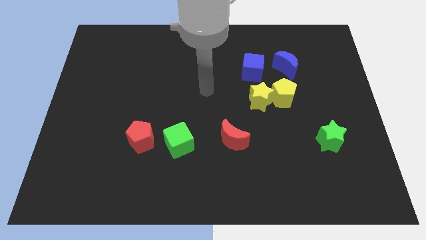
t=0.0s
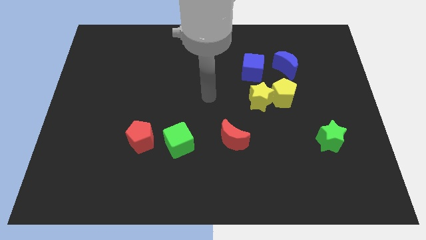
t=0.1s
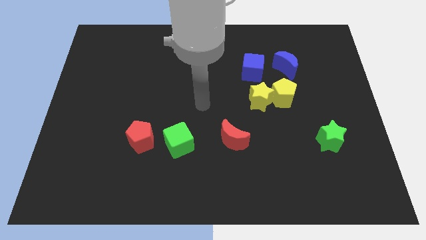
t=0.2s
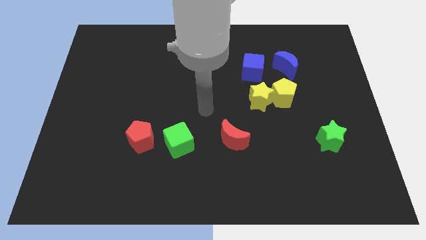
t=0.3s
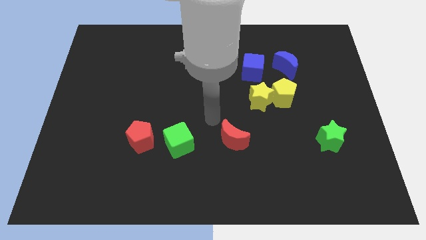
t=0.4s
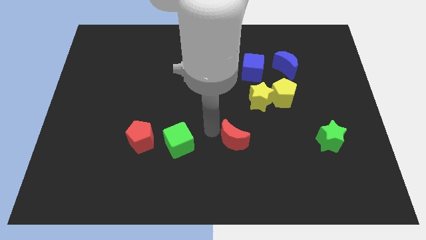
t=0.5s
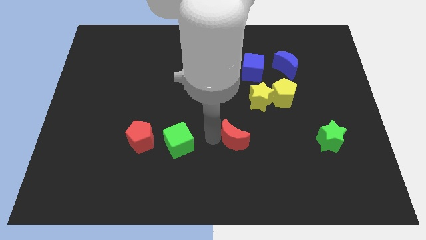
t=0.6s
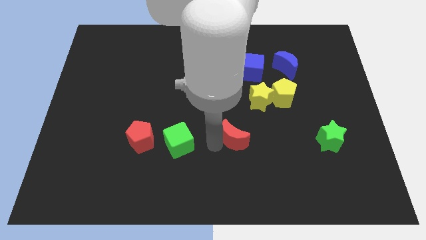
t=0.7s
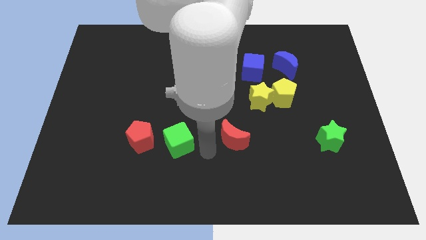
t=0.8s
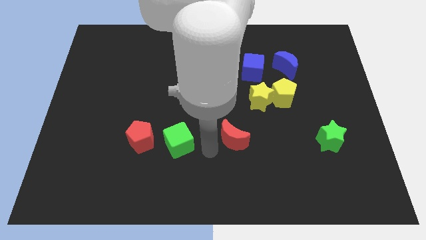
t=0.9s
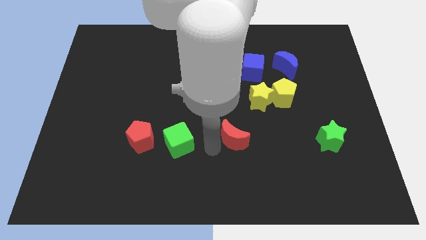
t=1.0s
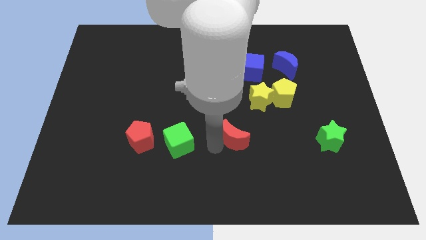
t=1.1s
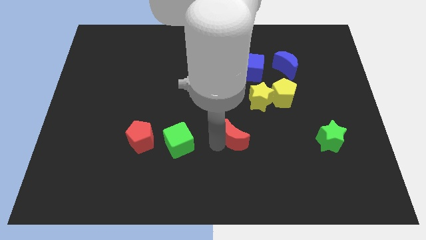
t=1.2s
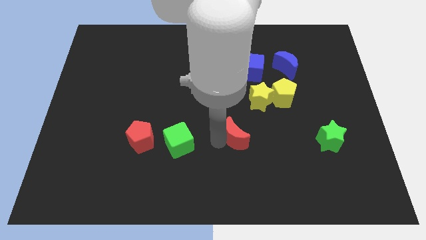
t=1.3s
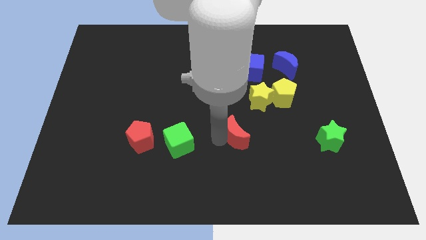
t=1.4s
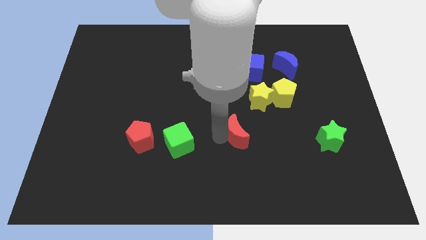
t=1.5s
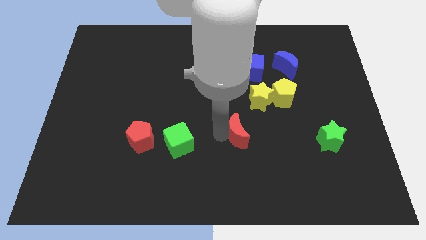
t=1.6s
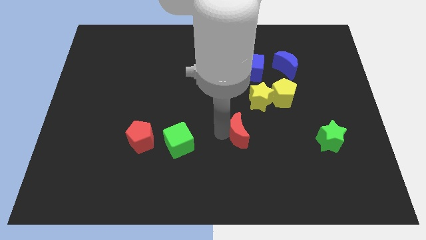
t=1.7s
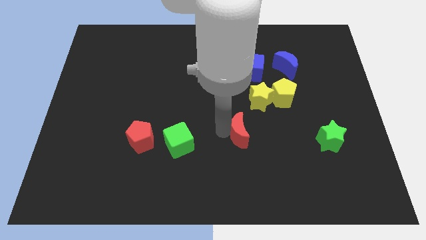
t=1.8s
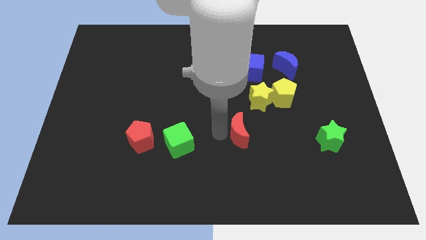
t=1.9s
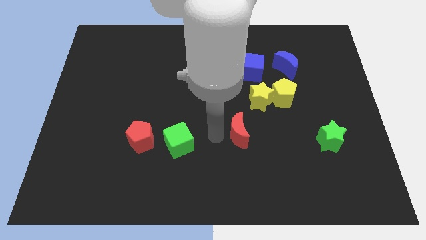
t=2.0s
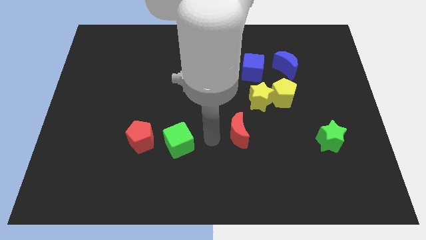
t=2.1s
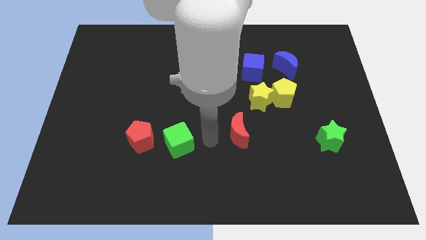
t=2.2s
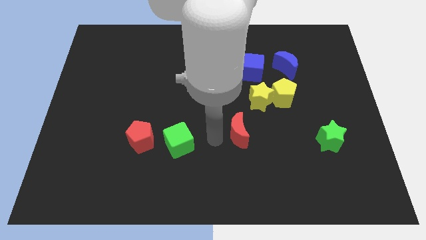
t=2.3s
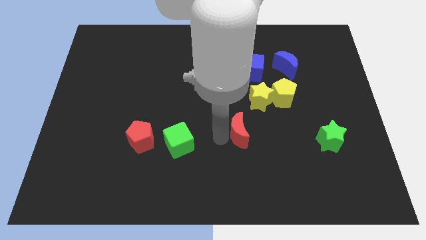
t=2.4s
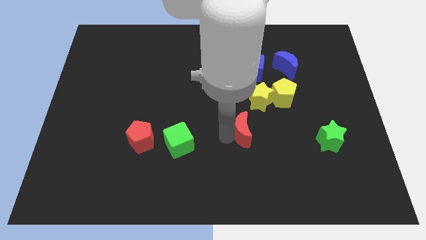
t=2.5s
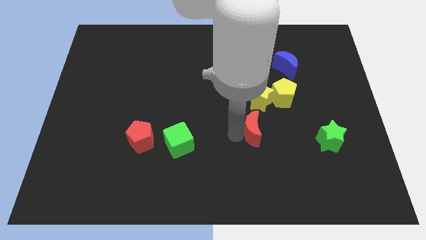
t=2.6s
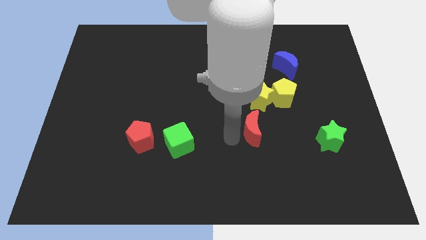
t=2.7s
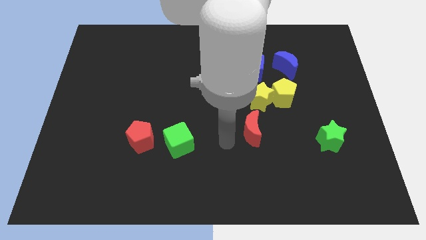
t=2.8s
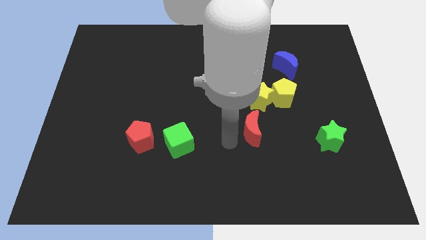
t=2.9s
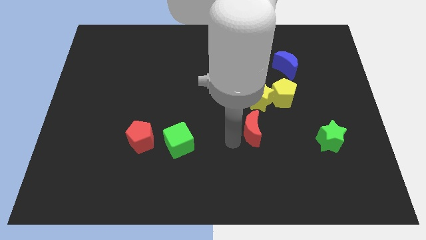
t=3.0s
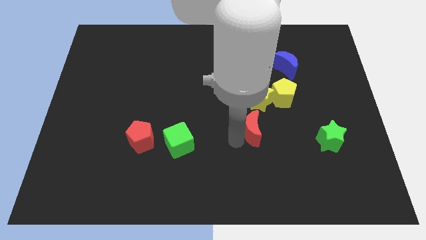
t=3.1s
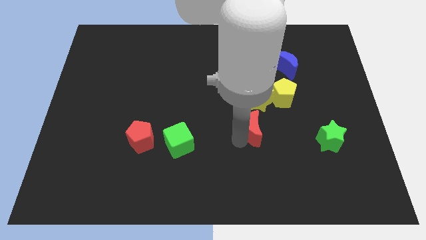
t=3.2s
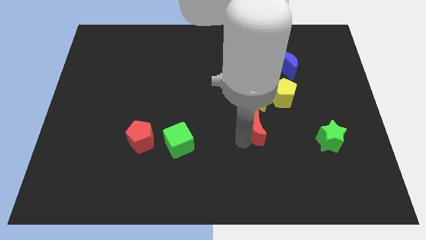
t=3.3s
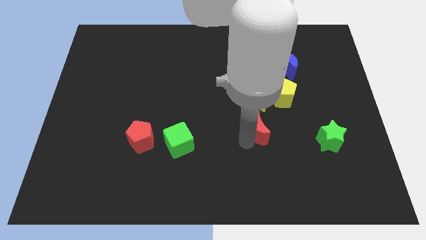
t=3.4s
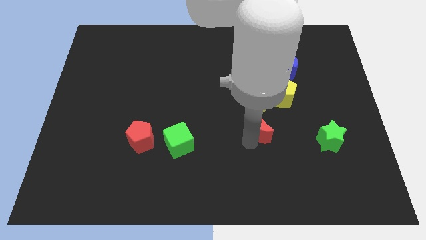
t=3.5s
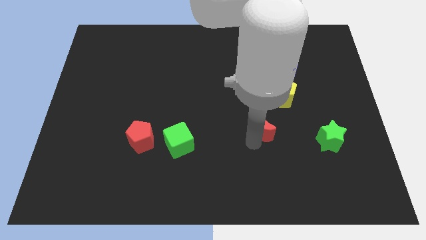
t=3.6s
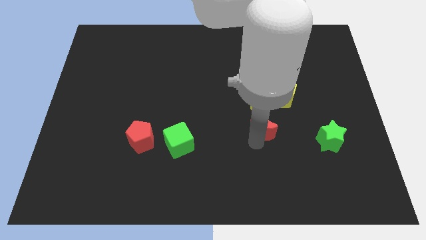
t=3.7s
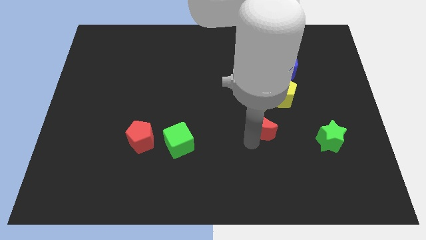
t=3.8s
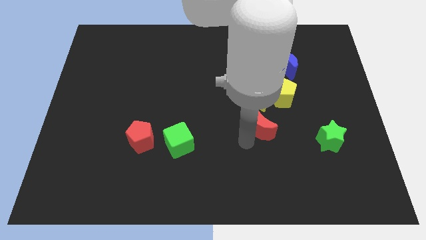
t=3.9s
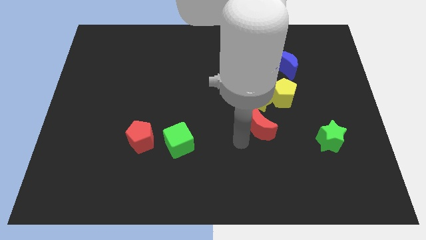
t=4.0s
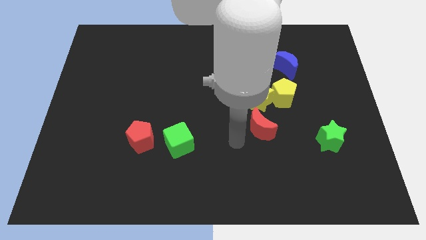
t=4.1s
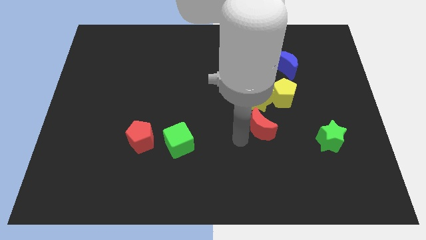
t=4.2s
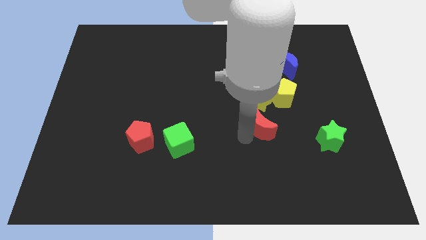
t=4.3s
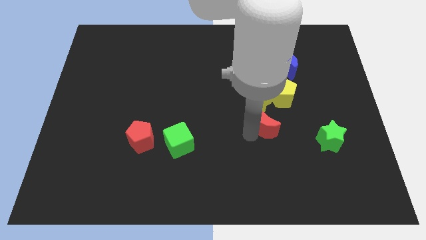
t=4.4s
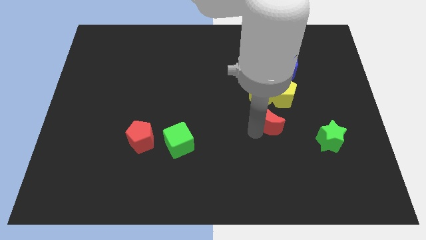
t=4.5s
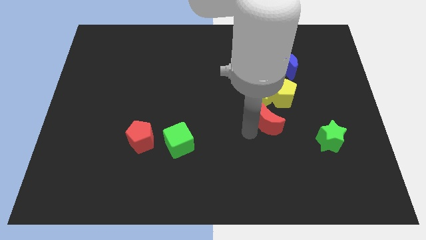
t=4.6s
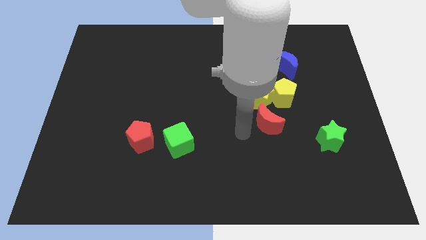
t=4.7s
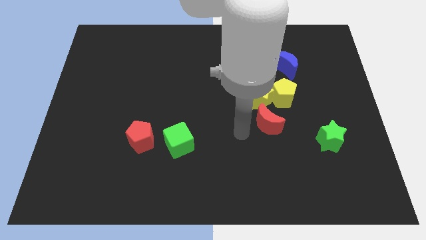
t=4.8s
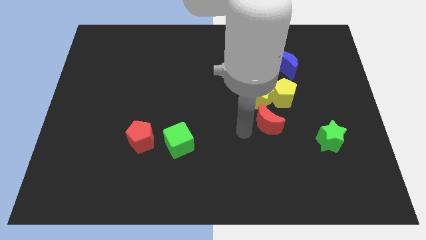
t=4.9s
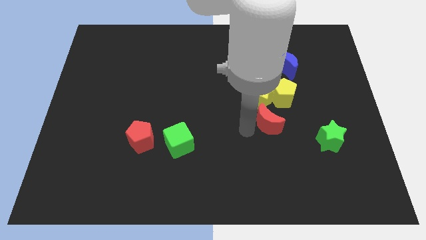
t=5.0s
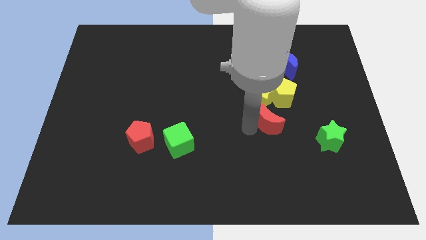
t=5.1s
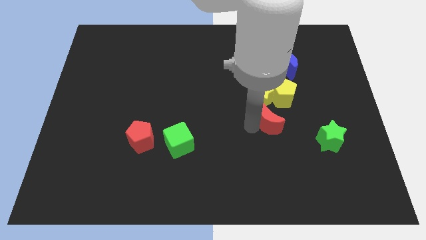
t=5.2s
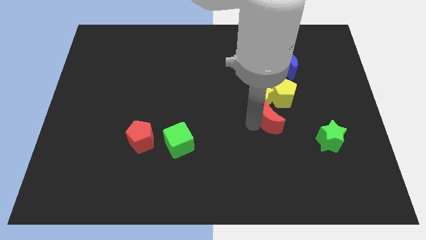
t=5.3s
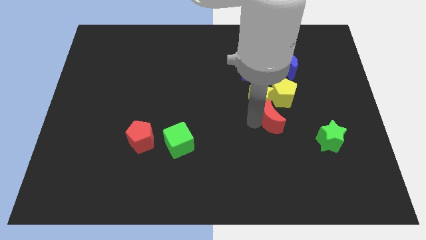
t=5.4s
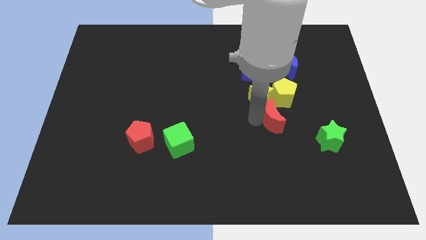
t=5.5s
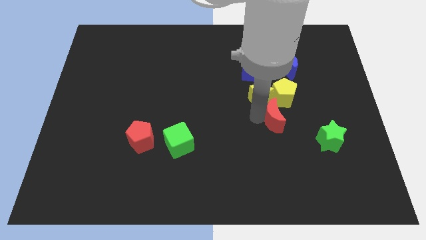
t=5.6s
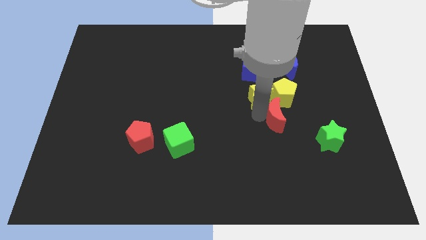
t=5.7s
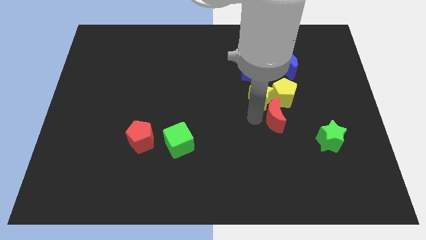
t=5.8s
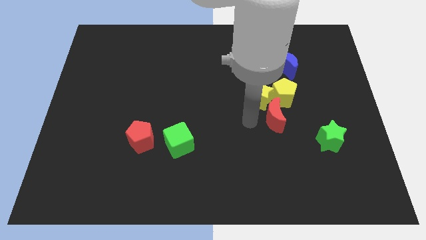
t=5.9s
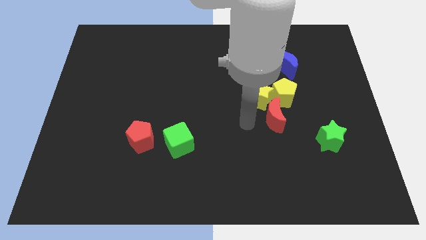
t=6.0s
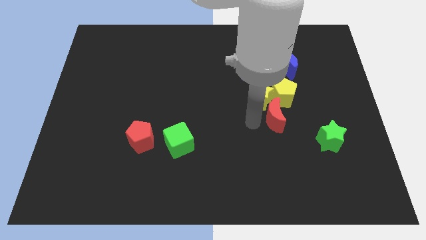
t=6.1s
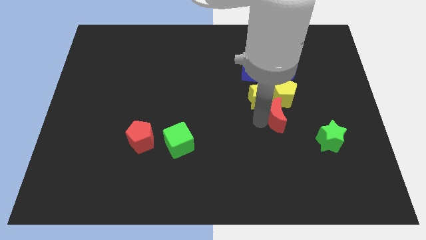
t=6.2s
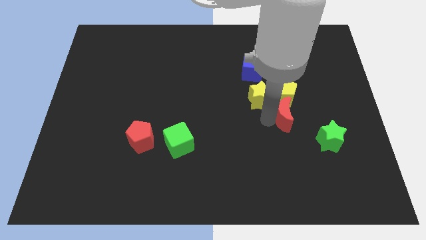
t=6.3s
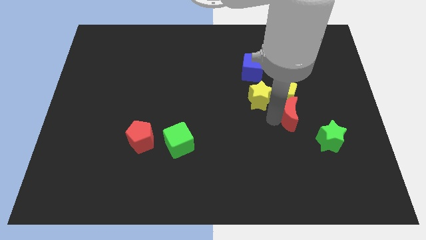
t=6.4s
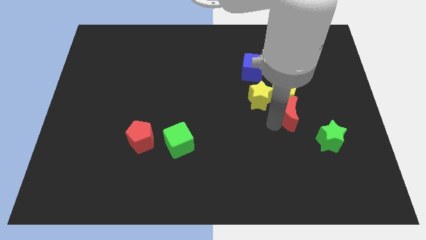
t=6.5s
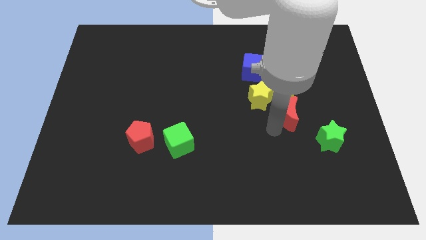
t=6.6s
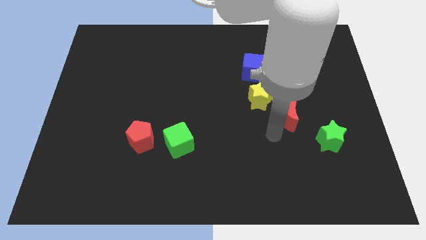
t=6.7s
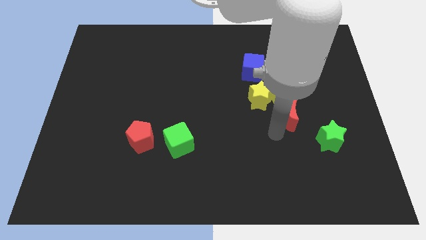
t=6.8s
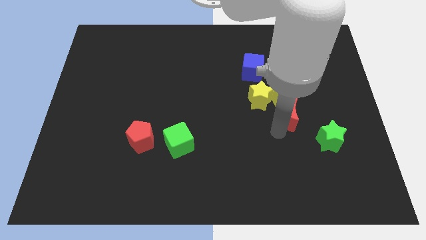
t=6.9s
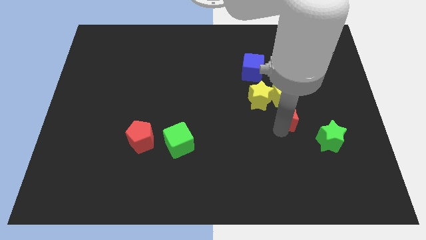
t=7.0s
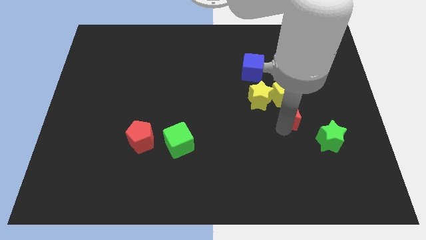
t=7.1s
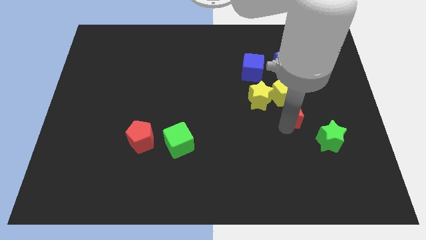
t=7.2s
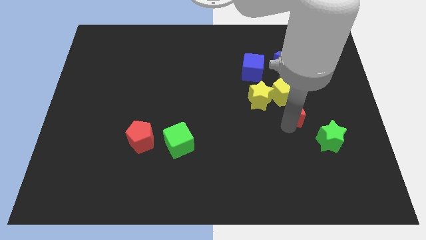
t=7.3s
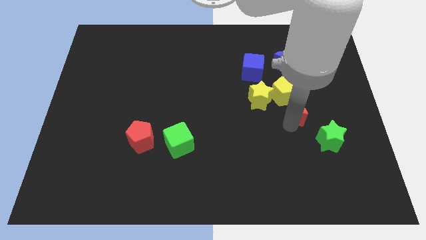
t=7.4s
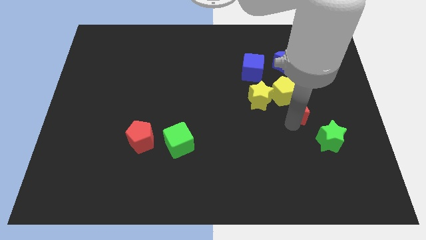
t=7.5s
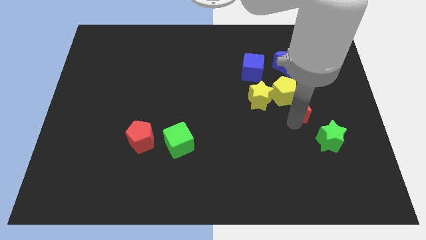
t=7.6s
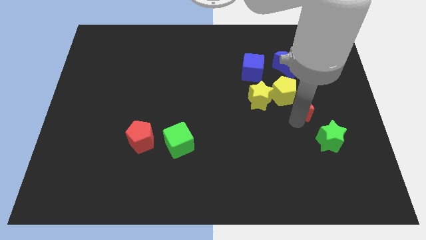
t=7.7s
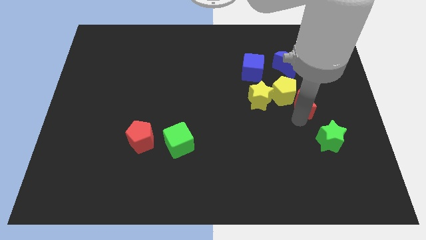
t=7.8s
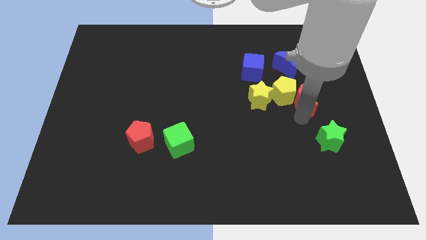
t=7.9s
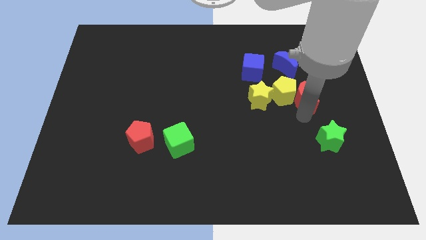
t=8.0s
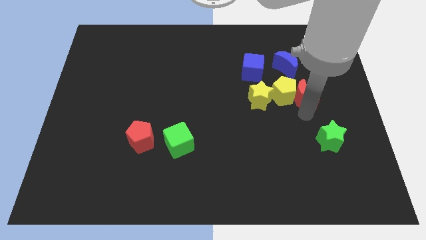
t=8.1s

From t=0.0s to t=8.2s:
move the red moon upwards and right diagonally
